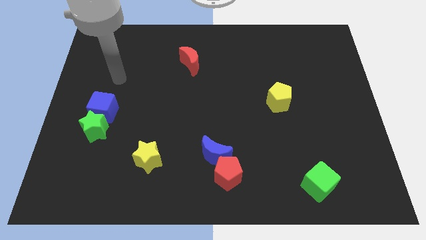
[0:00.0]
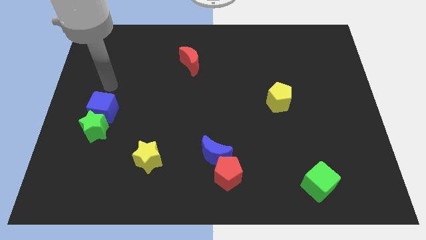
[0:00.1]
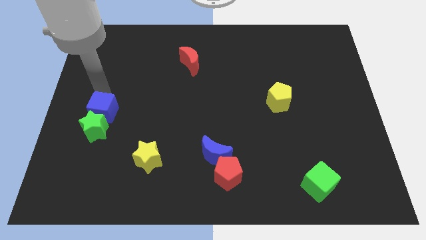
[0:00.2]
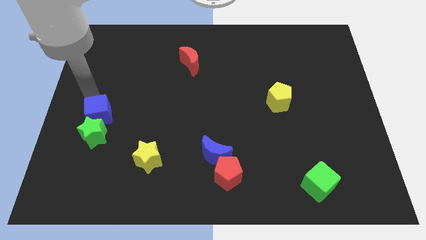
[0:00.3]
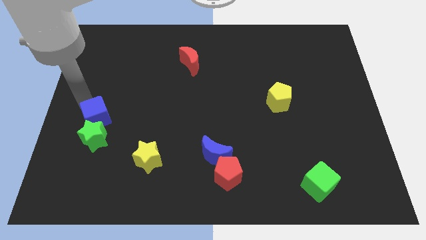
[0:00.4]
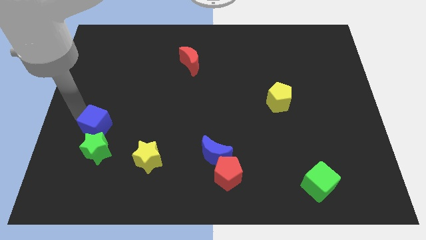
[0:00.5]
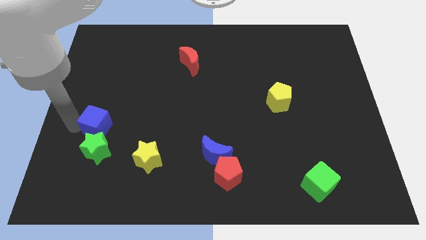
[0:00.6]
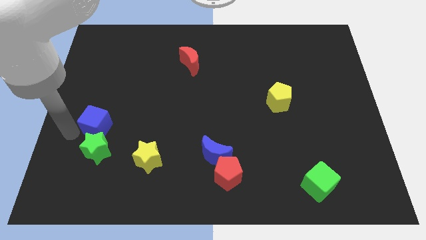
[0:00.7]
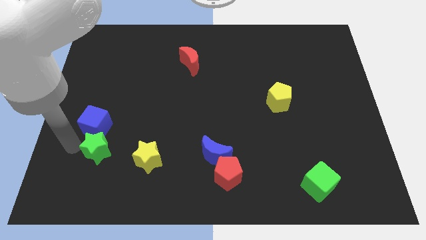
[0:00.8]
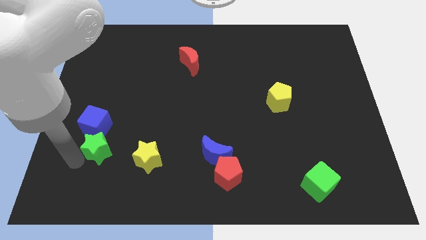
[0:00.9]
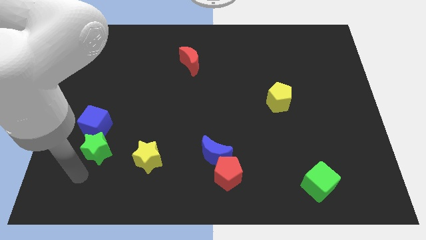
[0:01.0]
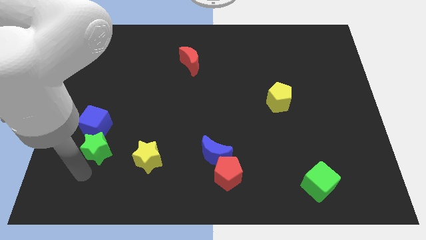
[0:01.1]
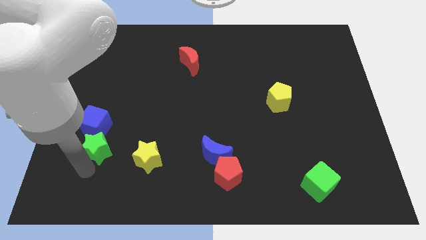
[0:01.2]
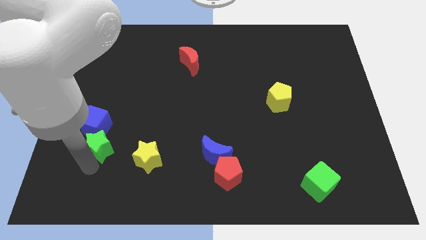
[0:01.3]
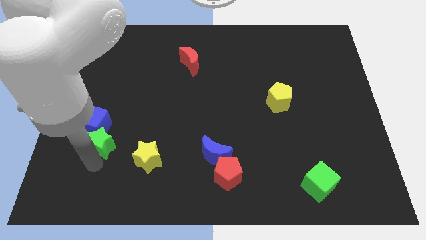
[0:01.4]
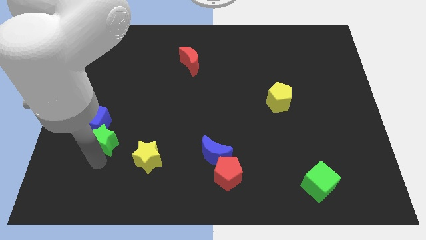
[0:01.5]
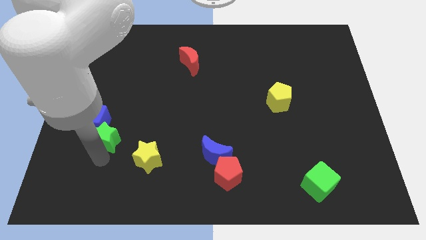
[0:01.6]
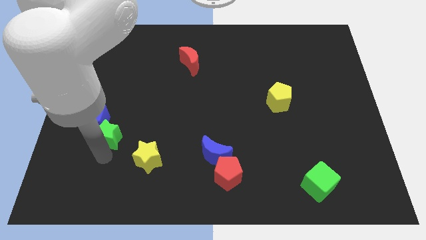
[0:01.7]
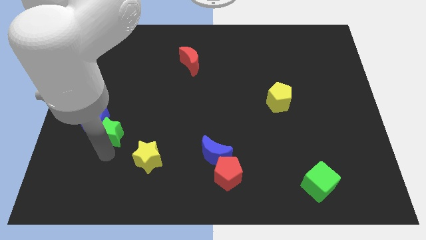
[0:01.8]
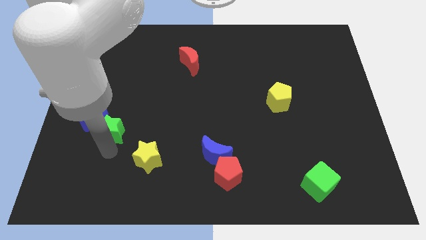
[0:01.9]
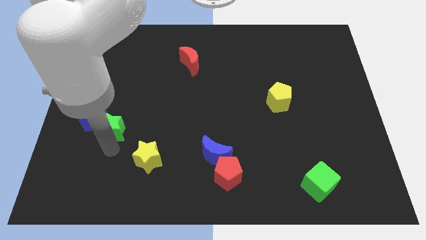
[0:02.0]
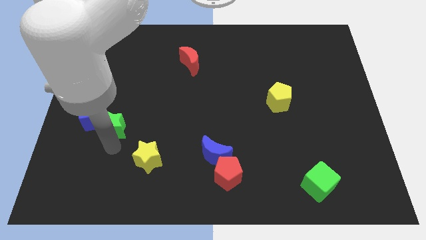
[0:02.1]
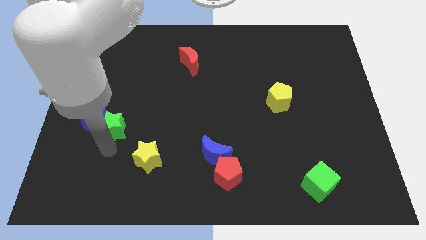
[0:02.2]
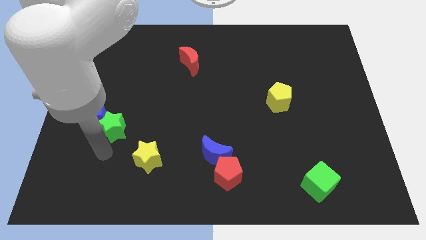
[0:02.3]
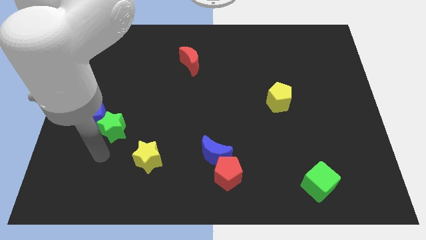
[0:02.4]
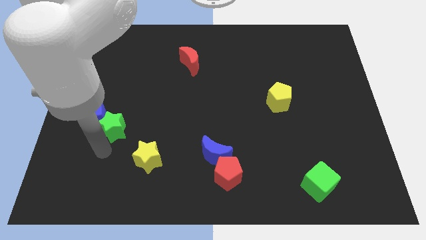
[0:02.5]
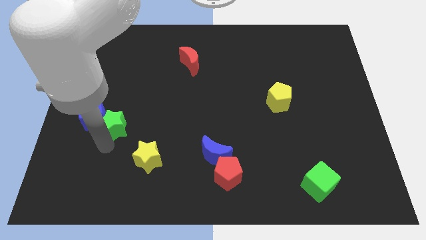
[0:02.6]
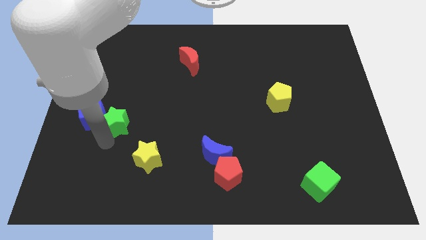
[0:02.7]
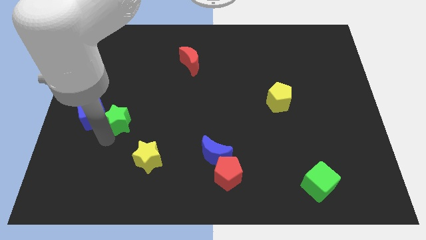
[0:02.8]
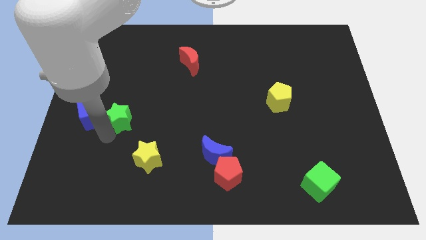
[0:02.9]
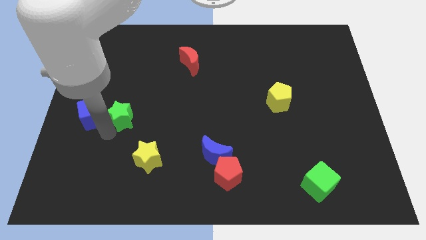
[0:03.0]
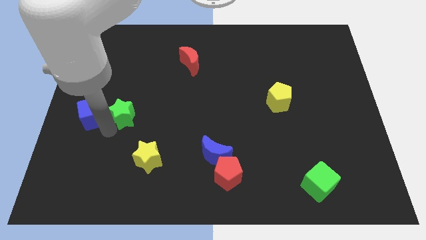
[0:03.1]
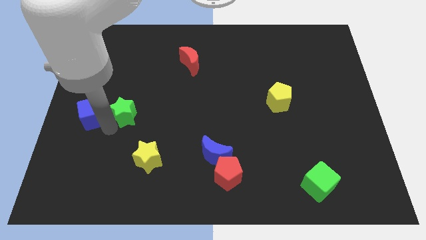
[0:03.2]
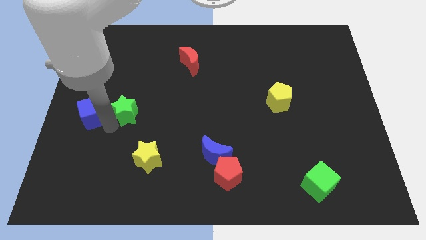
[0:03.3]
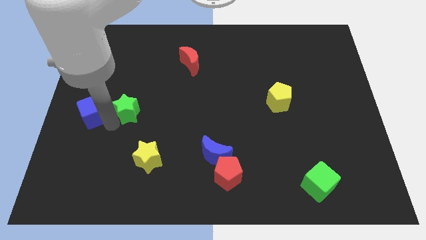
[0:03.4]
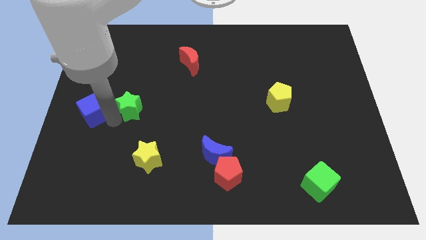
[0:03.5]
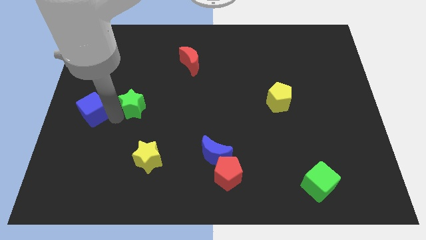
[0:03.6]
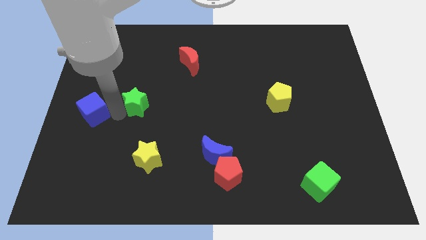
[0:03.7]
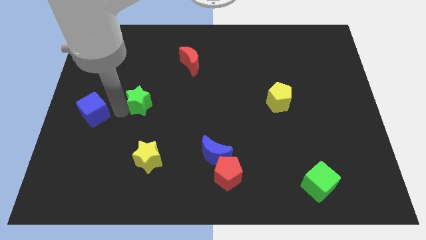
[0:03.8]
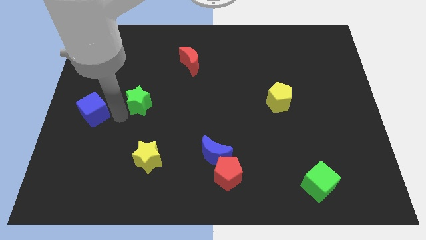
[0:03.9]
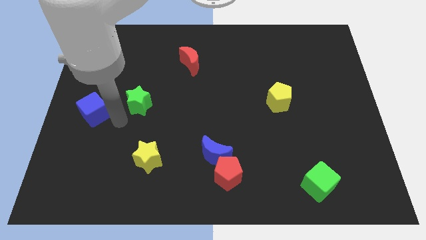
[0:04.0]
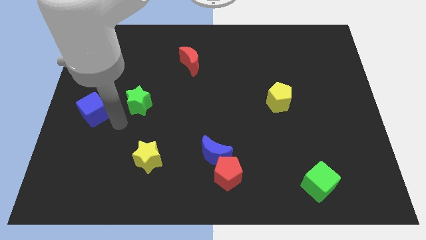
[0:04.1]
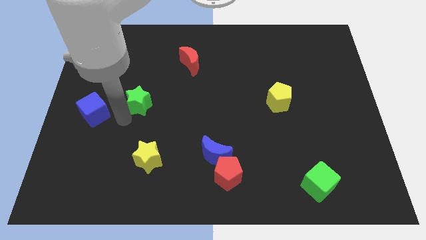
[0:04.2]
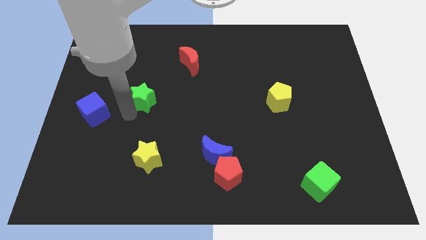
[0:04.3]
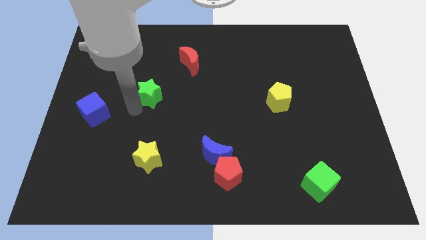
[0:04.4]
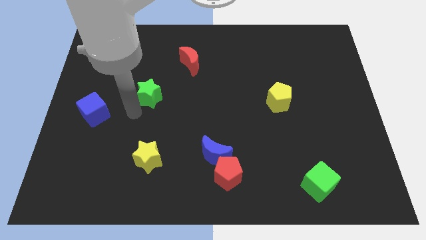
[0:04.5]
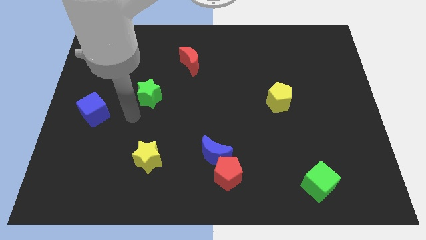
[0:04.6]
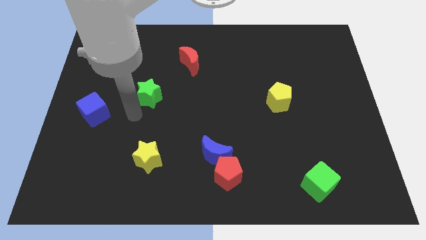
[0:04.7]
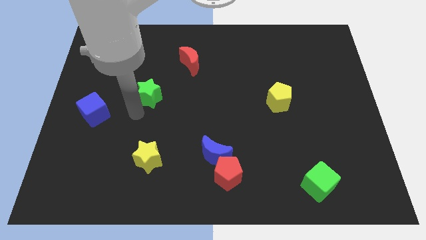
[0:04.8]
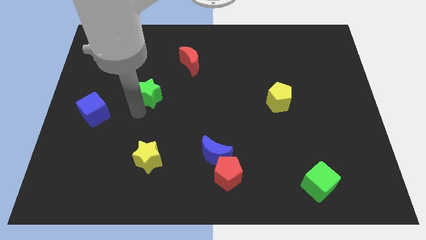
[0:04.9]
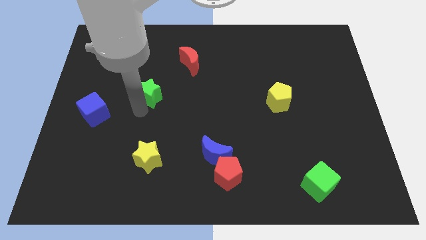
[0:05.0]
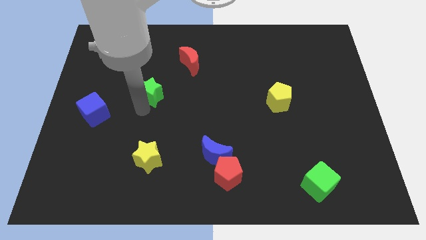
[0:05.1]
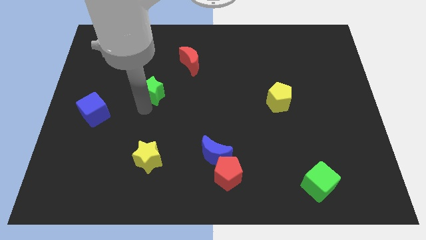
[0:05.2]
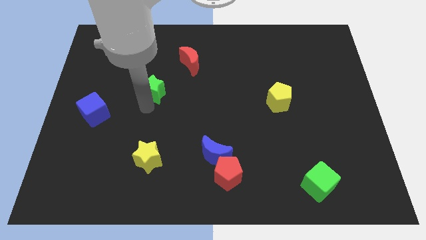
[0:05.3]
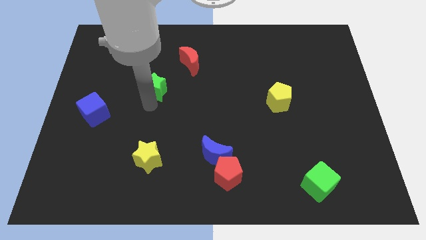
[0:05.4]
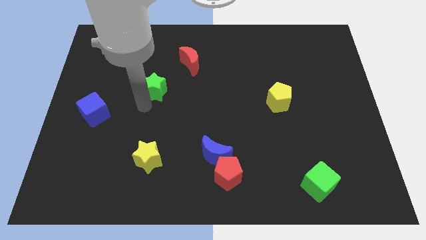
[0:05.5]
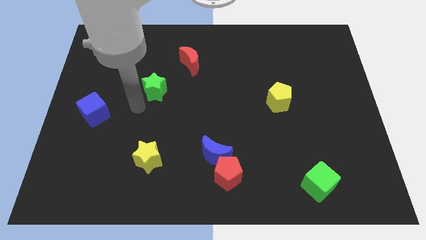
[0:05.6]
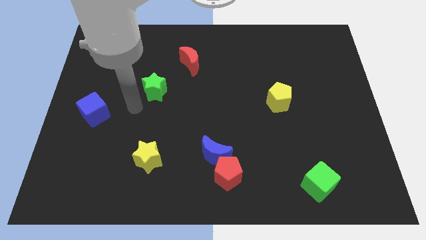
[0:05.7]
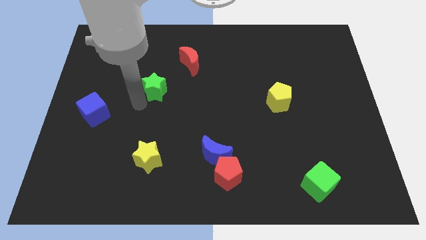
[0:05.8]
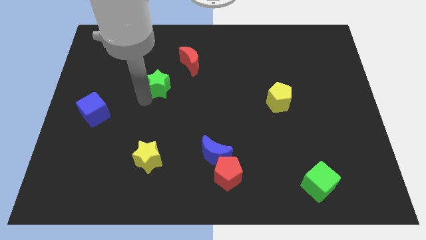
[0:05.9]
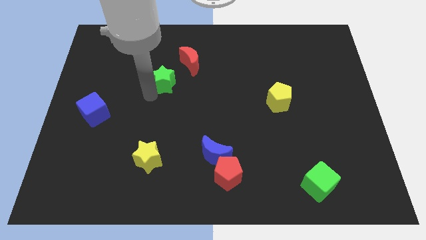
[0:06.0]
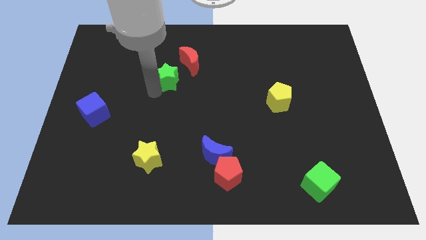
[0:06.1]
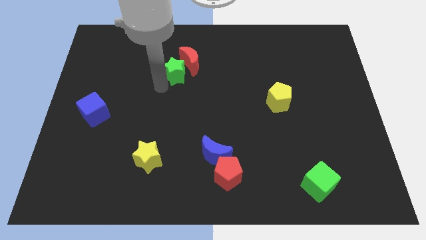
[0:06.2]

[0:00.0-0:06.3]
move the green star next to the red moon

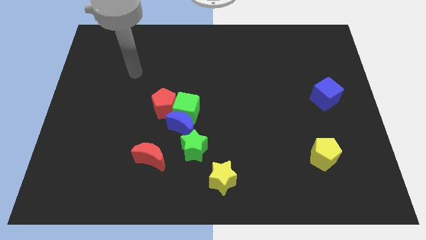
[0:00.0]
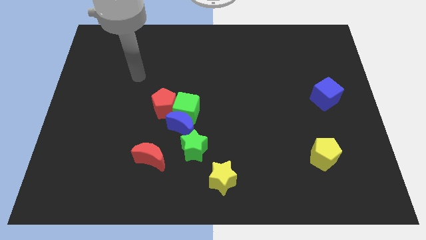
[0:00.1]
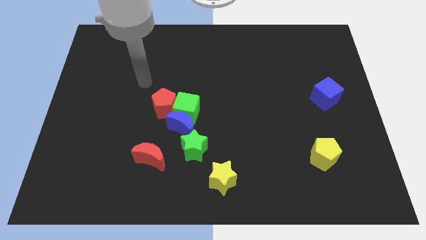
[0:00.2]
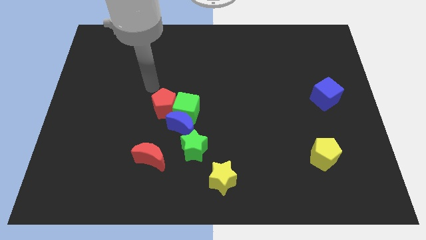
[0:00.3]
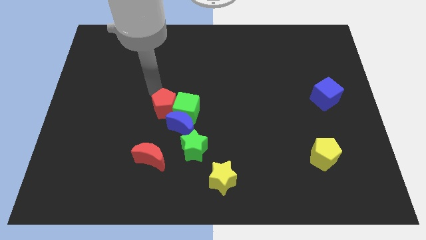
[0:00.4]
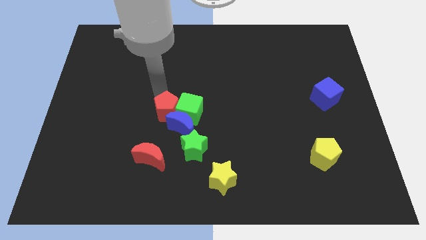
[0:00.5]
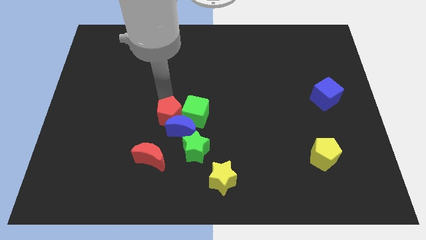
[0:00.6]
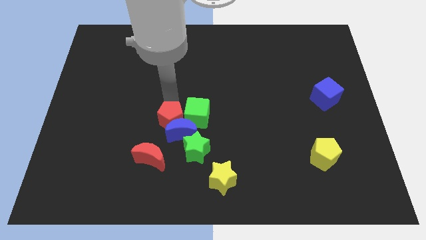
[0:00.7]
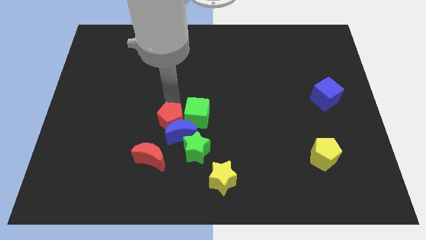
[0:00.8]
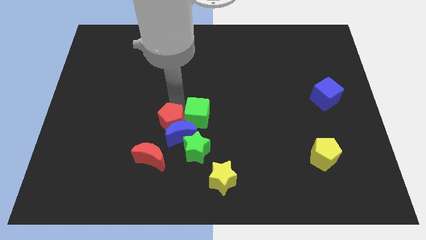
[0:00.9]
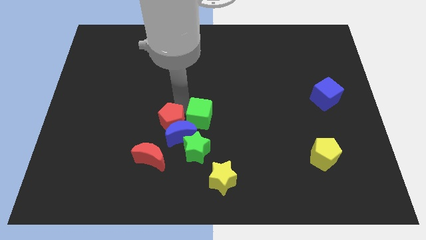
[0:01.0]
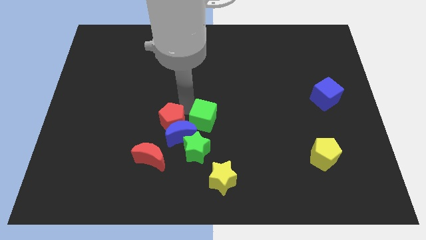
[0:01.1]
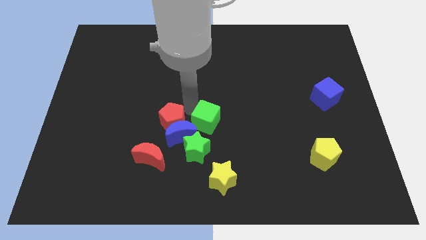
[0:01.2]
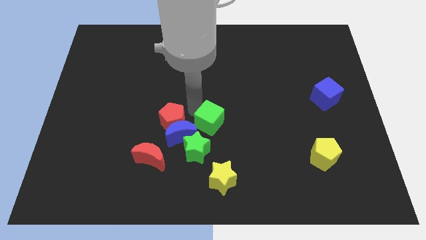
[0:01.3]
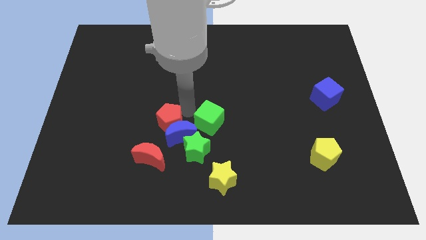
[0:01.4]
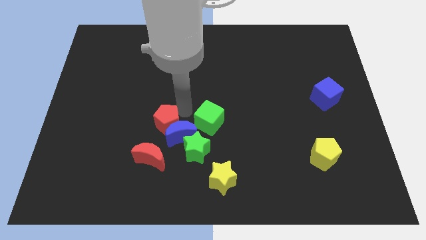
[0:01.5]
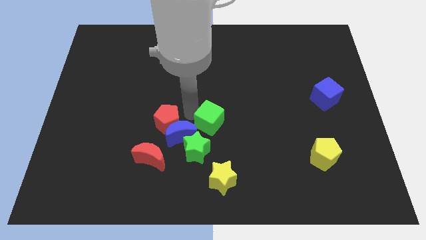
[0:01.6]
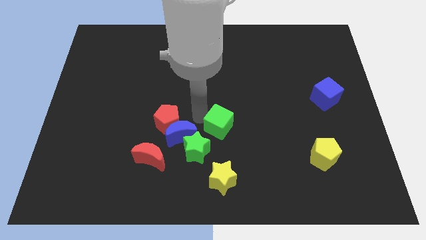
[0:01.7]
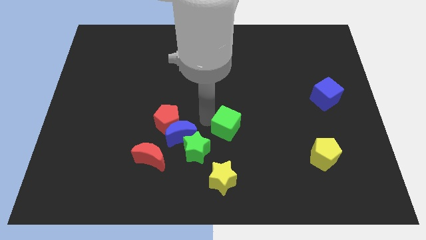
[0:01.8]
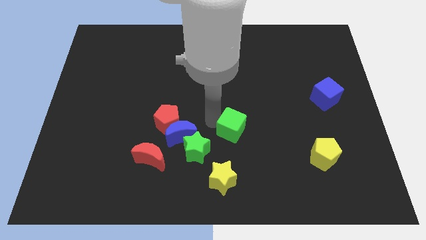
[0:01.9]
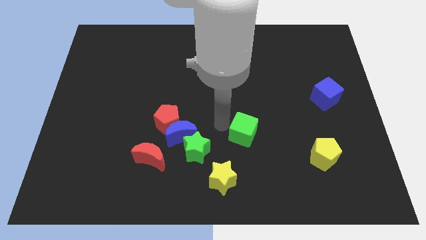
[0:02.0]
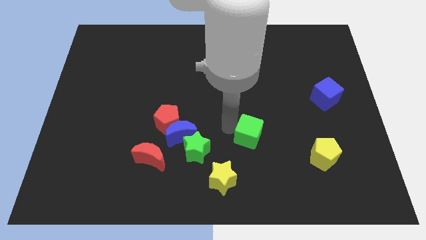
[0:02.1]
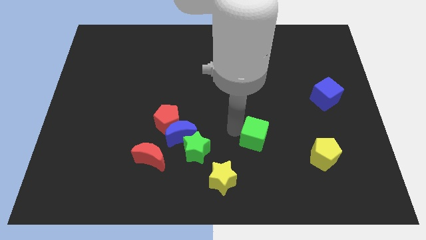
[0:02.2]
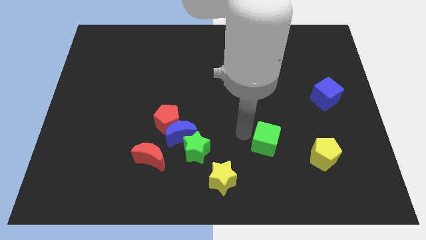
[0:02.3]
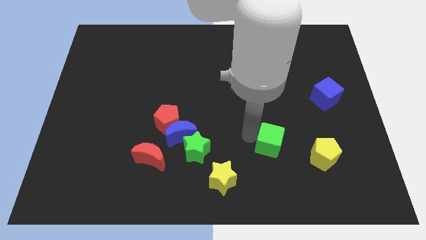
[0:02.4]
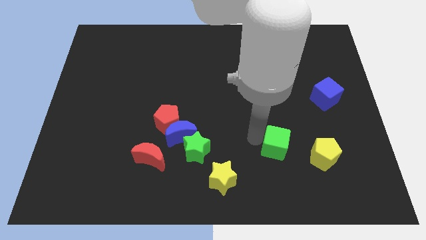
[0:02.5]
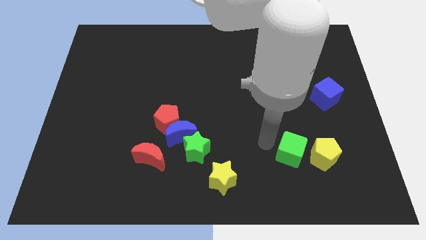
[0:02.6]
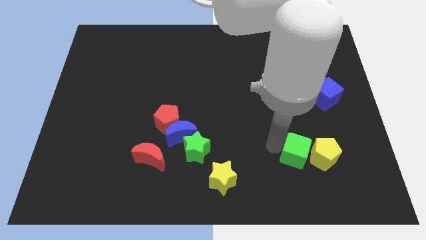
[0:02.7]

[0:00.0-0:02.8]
slide the green cube close to the yellow pentagon
